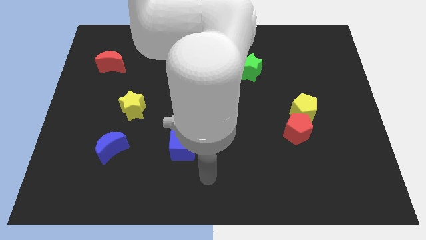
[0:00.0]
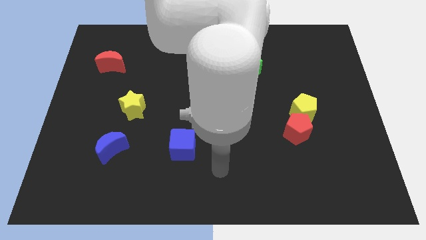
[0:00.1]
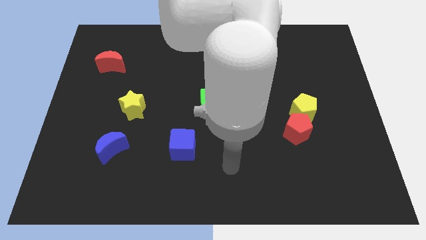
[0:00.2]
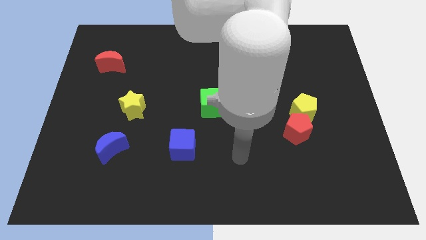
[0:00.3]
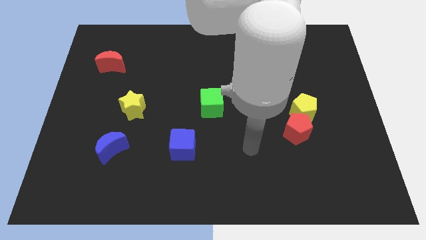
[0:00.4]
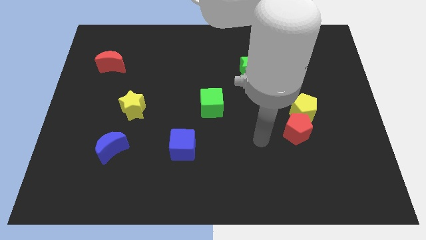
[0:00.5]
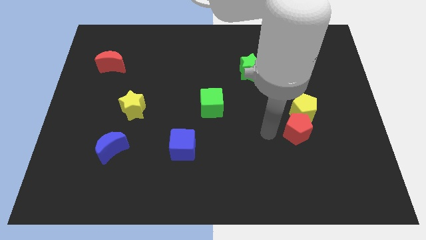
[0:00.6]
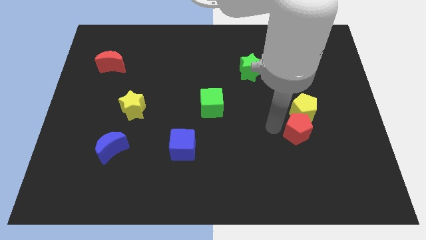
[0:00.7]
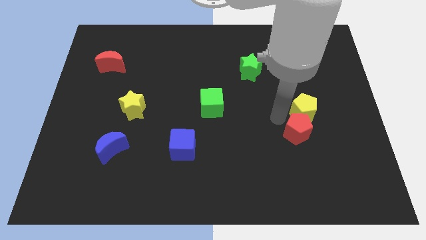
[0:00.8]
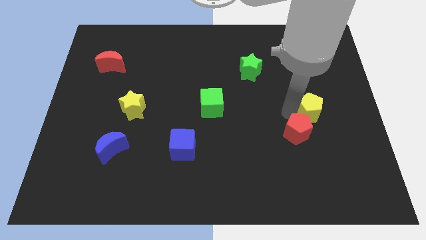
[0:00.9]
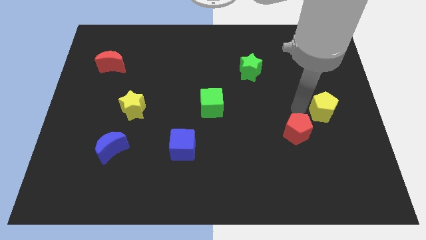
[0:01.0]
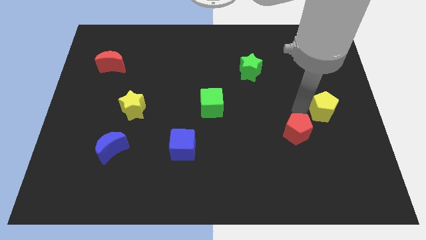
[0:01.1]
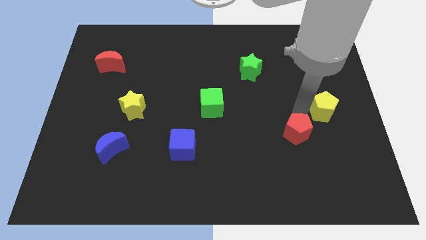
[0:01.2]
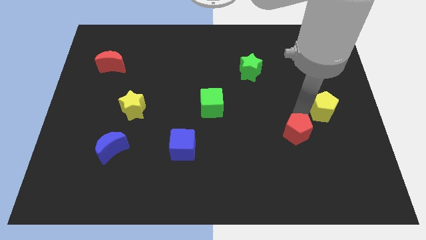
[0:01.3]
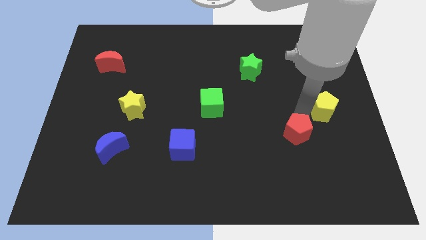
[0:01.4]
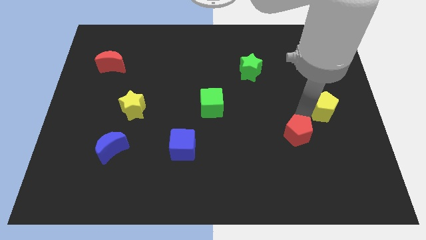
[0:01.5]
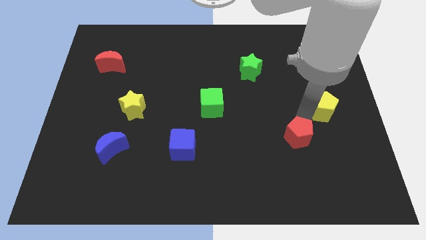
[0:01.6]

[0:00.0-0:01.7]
move the red pentagon away from the yellow pentagon

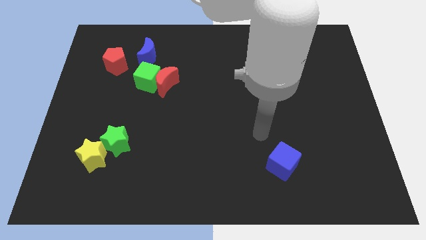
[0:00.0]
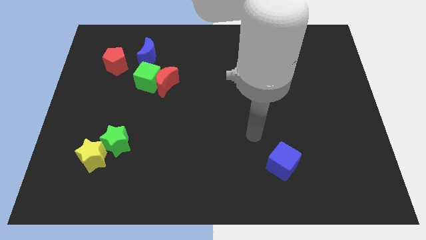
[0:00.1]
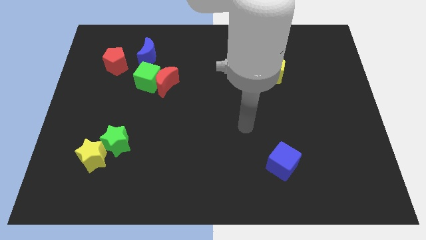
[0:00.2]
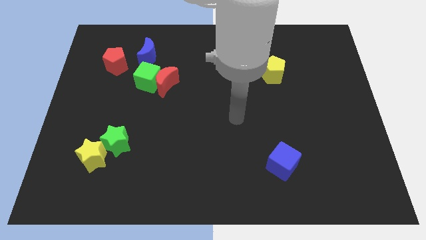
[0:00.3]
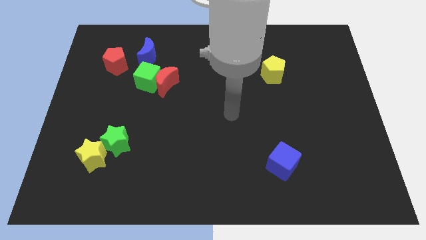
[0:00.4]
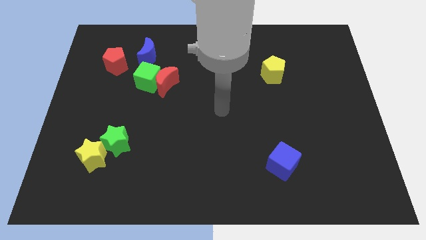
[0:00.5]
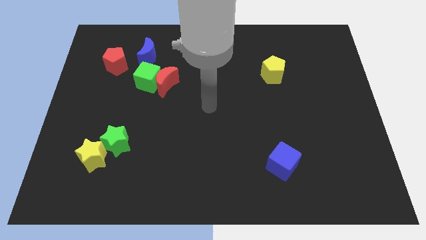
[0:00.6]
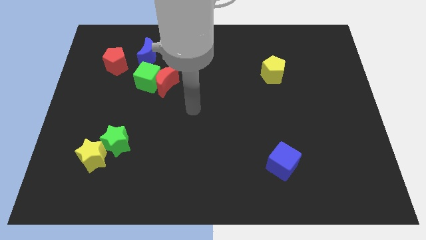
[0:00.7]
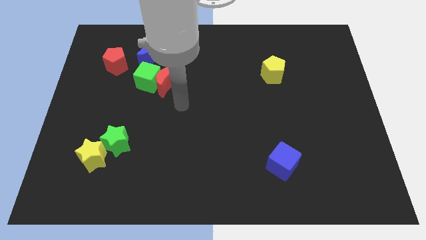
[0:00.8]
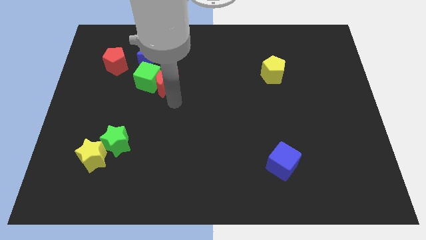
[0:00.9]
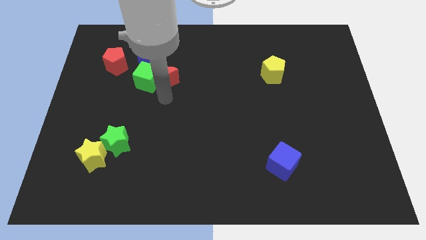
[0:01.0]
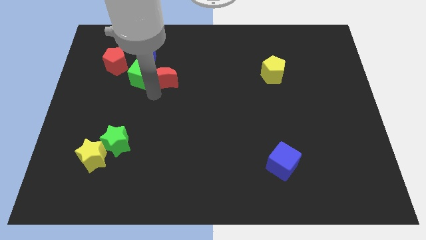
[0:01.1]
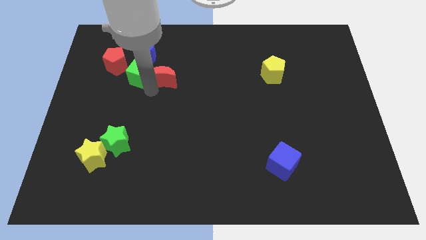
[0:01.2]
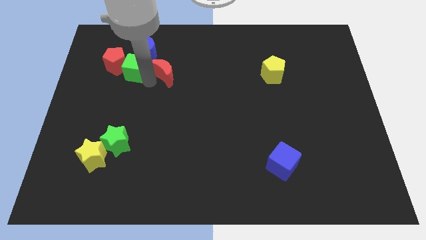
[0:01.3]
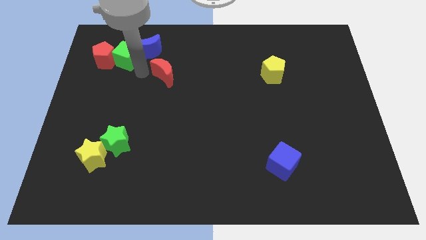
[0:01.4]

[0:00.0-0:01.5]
pull the red moon apart from the green cube

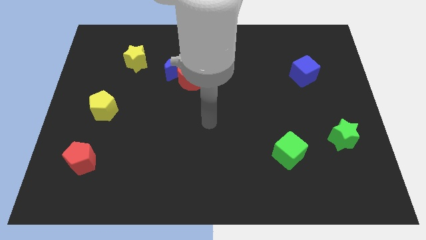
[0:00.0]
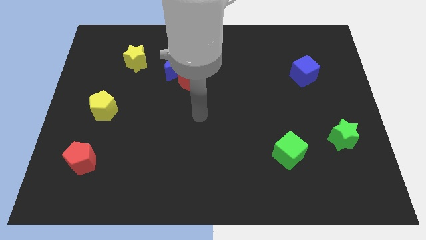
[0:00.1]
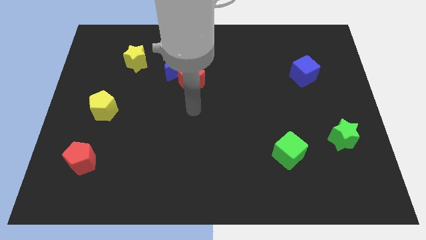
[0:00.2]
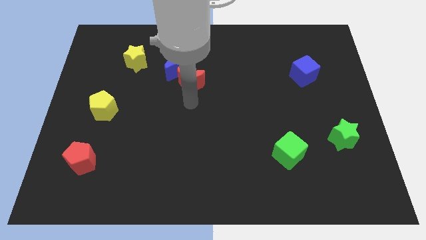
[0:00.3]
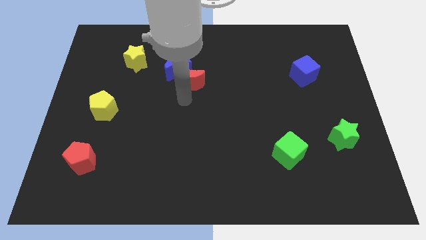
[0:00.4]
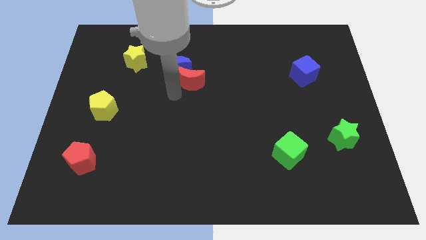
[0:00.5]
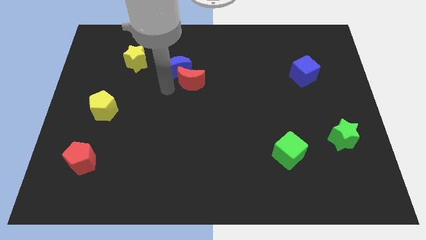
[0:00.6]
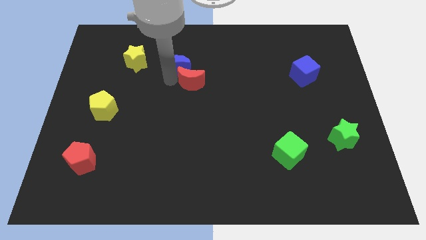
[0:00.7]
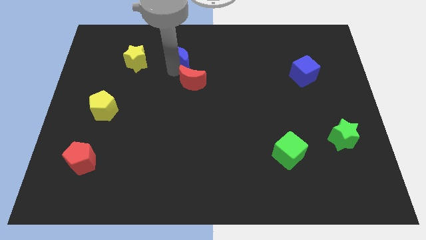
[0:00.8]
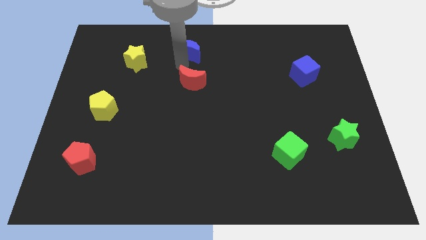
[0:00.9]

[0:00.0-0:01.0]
pull the red moon apart from the blue moon

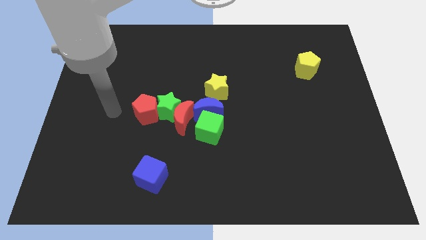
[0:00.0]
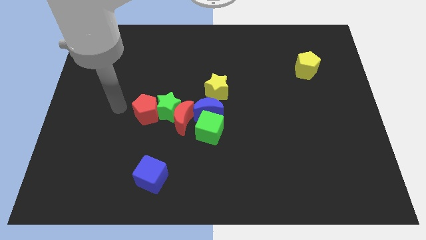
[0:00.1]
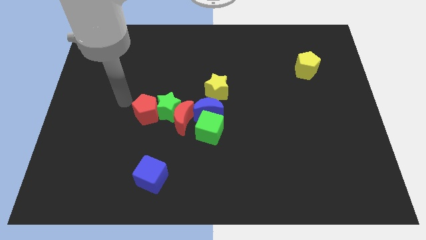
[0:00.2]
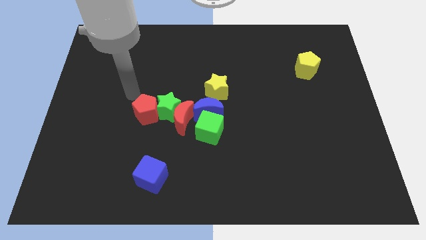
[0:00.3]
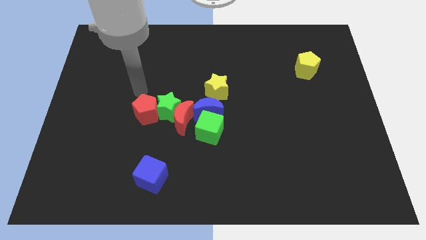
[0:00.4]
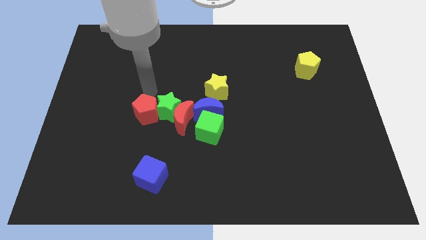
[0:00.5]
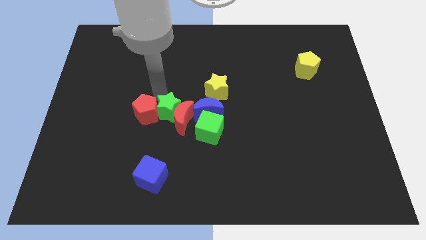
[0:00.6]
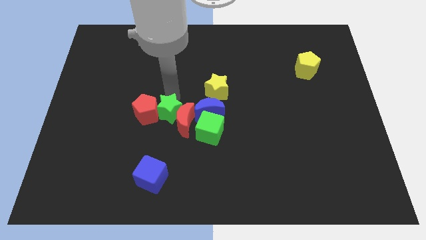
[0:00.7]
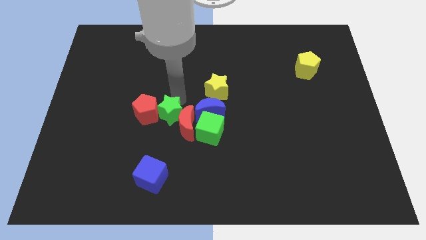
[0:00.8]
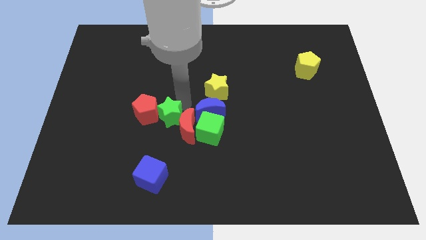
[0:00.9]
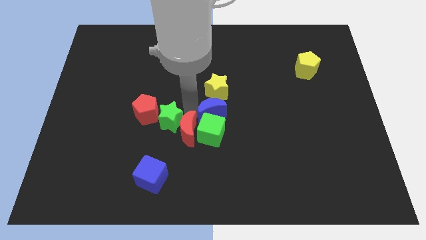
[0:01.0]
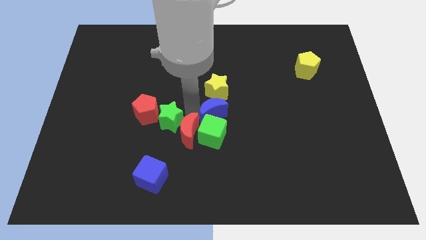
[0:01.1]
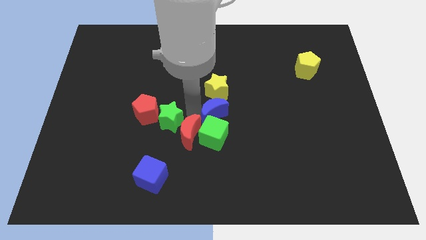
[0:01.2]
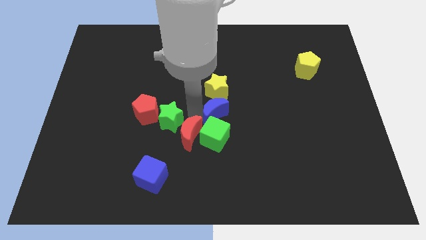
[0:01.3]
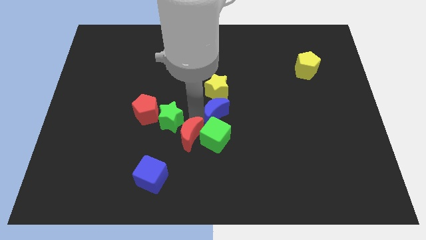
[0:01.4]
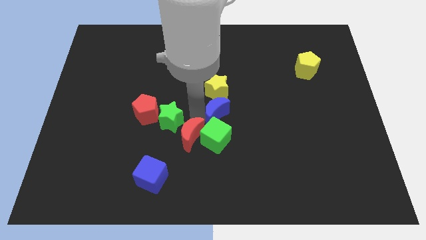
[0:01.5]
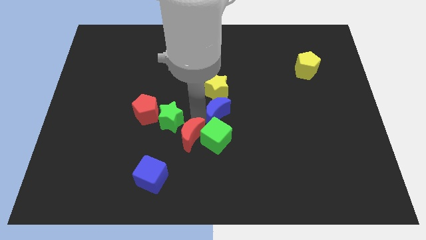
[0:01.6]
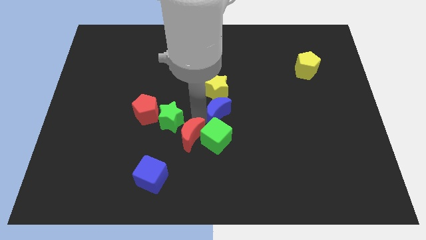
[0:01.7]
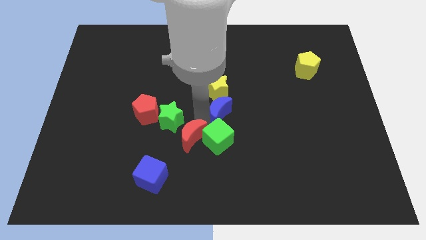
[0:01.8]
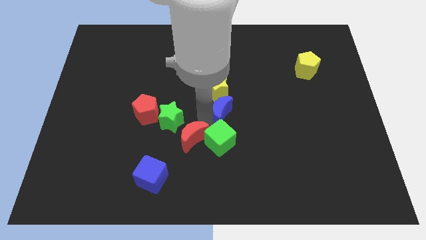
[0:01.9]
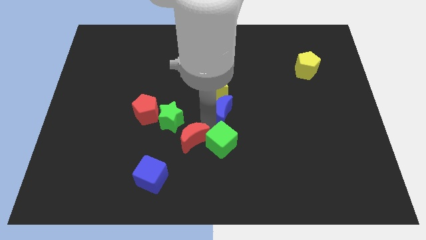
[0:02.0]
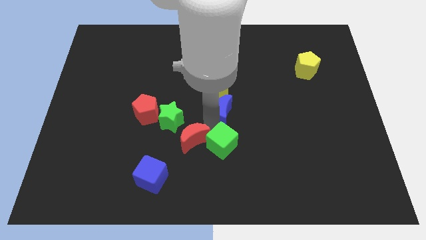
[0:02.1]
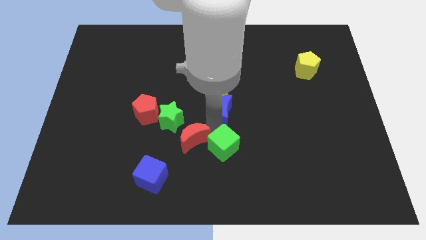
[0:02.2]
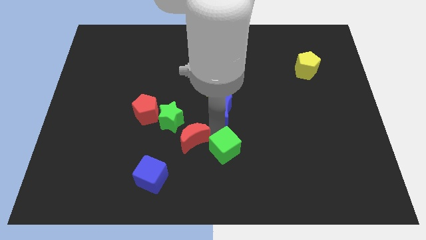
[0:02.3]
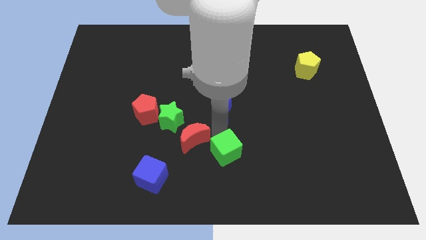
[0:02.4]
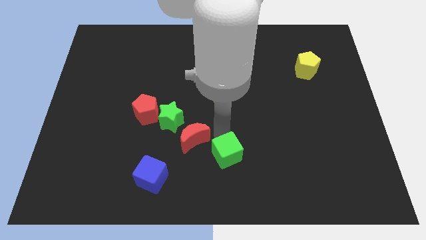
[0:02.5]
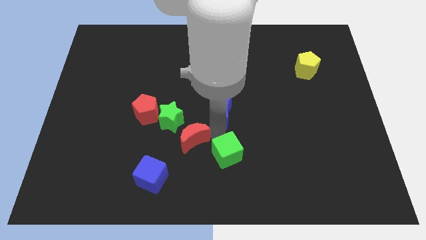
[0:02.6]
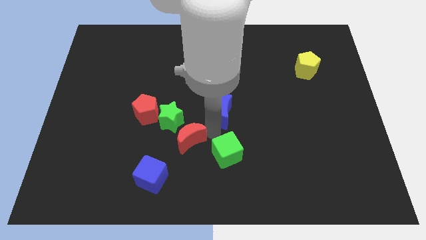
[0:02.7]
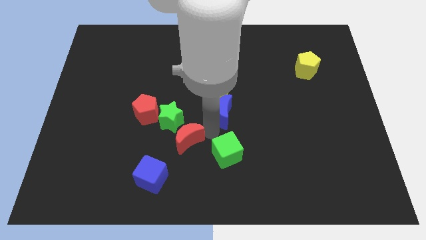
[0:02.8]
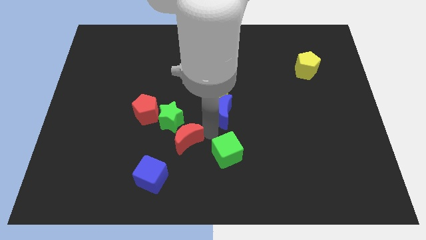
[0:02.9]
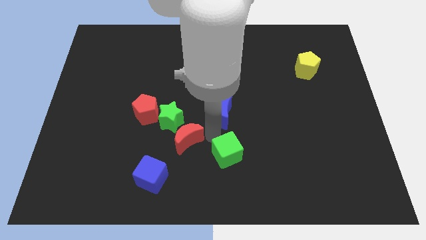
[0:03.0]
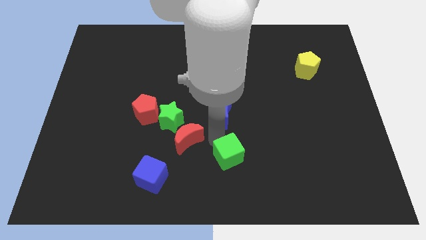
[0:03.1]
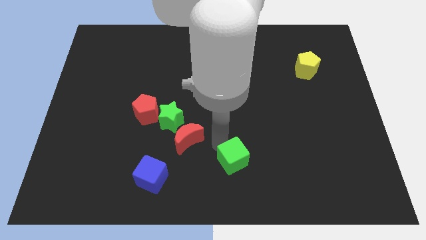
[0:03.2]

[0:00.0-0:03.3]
pull the green cube apart from the blue moon and red moon

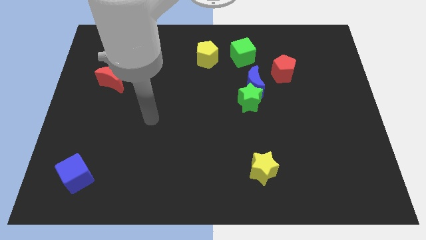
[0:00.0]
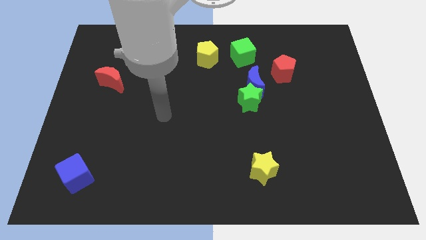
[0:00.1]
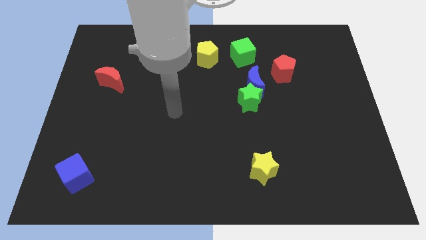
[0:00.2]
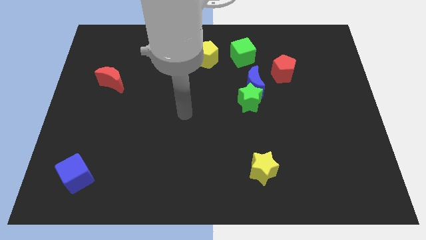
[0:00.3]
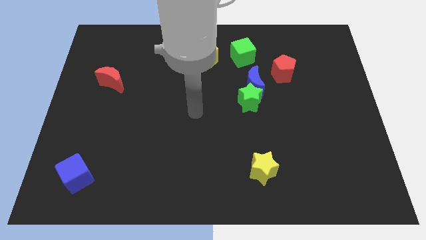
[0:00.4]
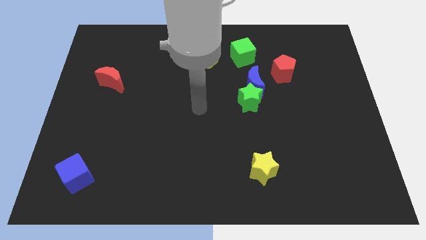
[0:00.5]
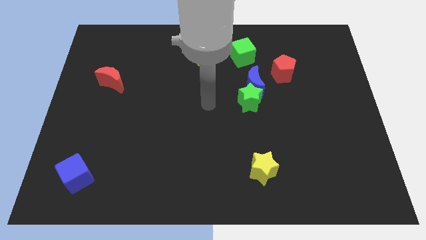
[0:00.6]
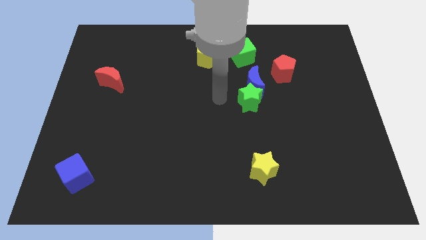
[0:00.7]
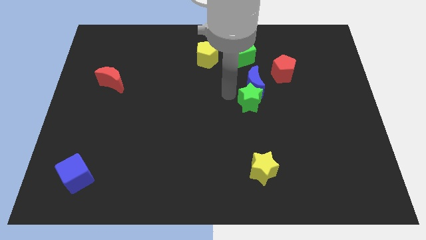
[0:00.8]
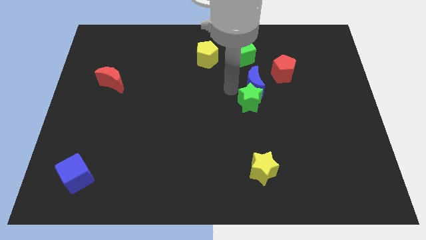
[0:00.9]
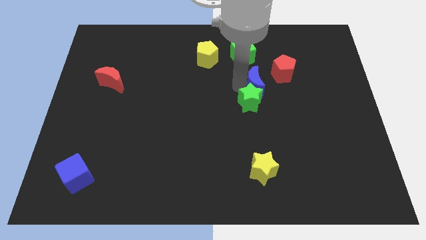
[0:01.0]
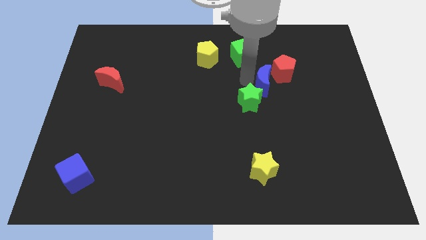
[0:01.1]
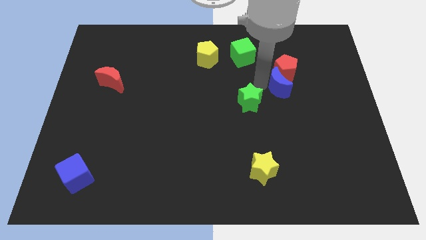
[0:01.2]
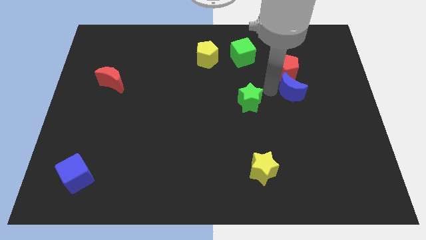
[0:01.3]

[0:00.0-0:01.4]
move the green star away from the blue moon

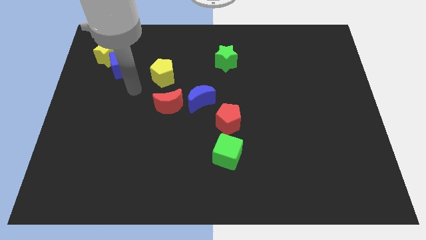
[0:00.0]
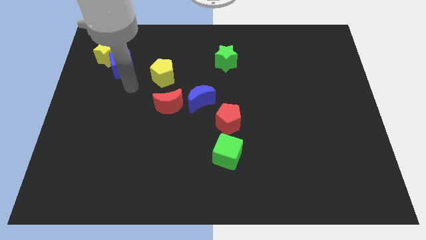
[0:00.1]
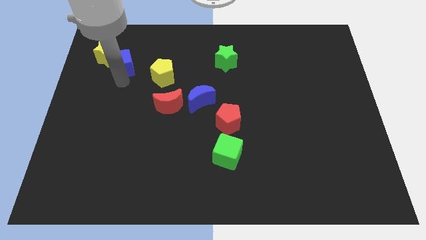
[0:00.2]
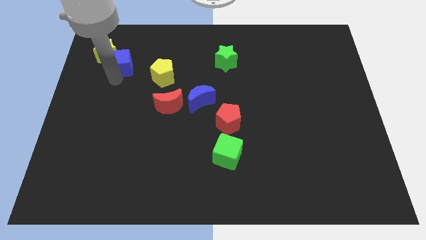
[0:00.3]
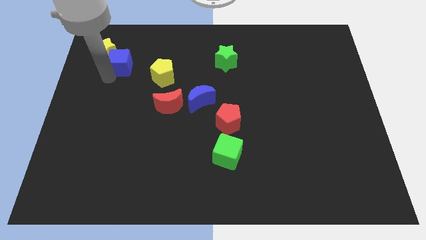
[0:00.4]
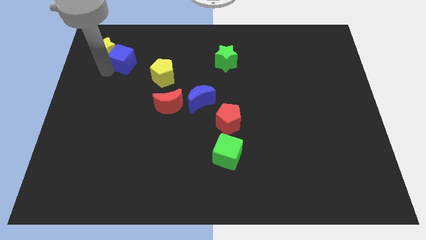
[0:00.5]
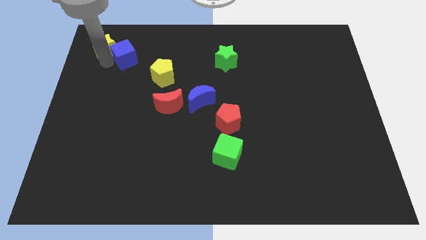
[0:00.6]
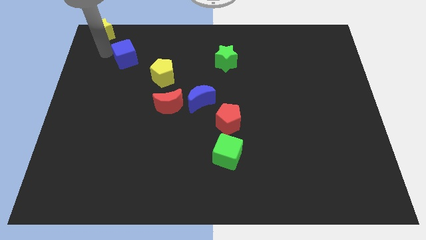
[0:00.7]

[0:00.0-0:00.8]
pull the blue cube apart from the yellow star
